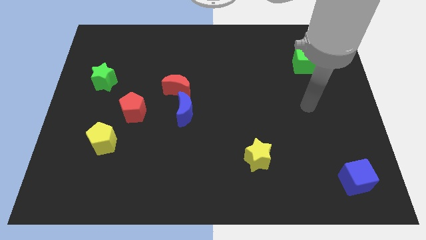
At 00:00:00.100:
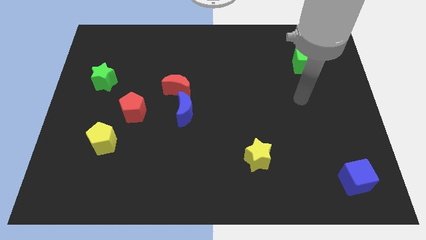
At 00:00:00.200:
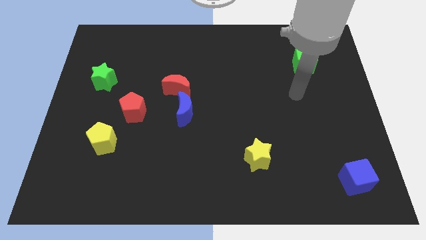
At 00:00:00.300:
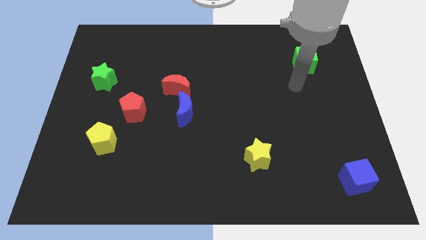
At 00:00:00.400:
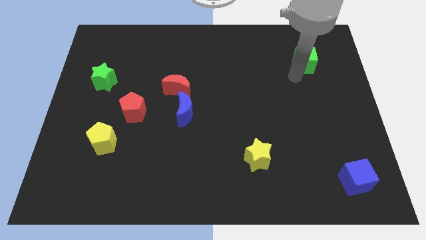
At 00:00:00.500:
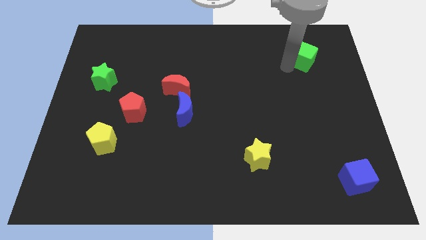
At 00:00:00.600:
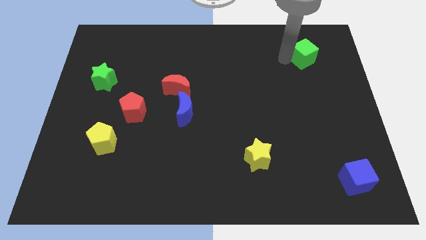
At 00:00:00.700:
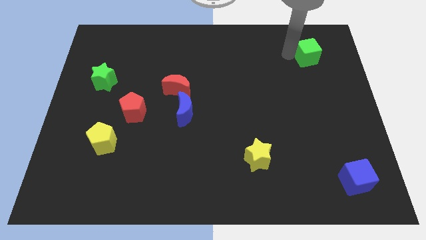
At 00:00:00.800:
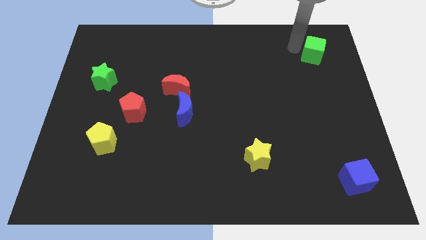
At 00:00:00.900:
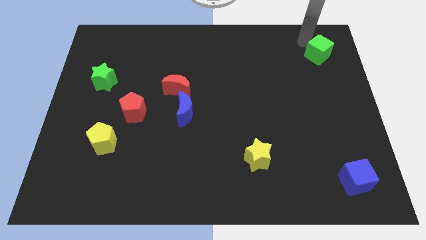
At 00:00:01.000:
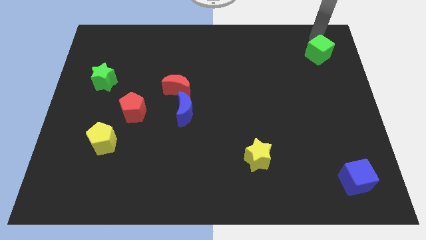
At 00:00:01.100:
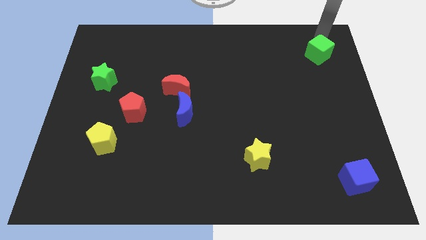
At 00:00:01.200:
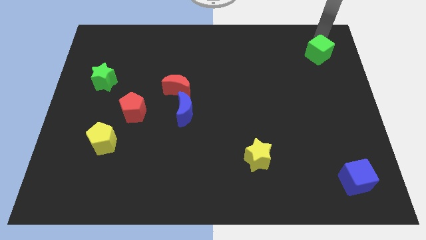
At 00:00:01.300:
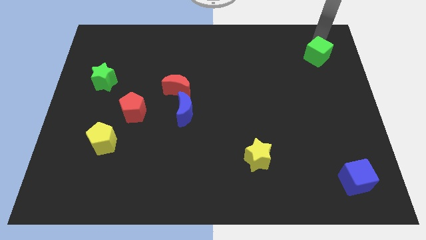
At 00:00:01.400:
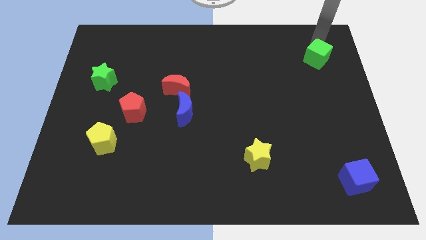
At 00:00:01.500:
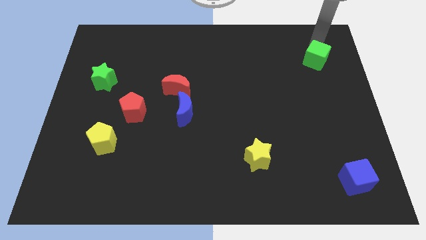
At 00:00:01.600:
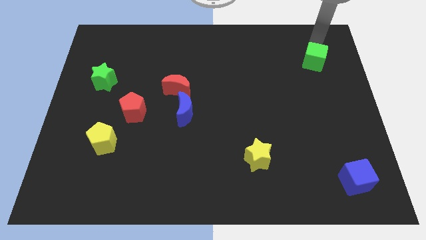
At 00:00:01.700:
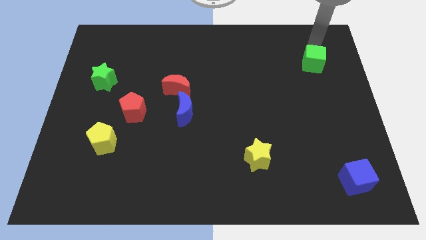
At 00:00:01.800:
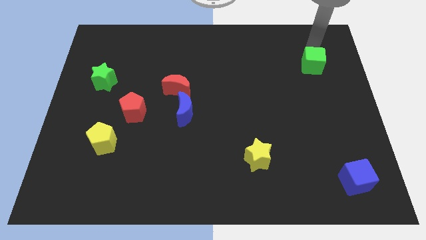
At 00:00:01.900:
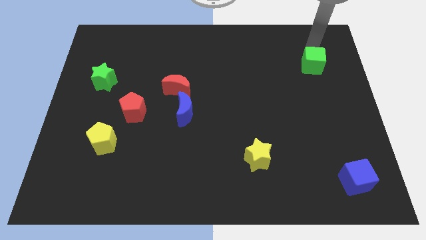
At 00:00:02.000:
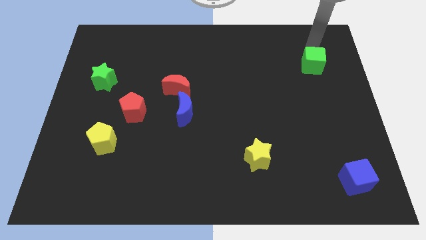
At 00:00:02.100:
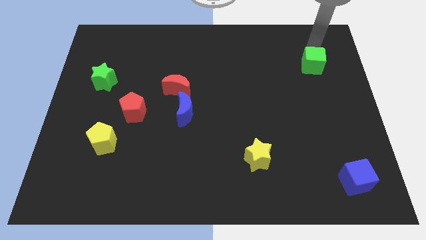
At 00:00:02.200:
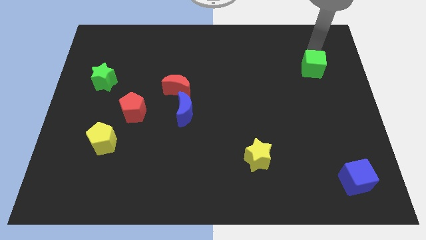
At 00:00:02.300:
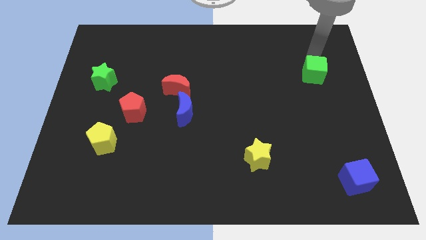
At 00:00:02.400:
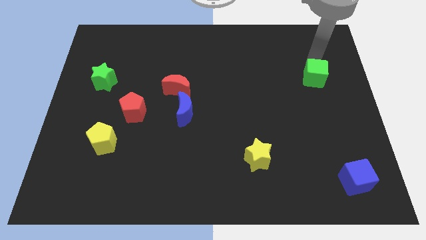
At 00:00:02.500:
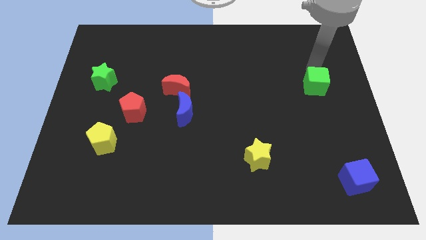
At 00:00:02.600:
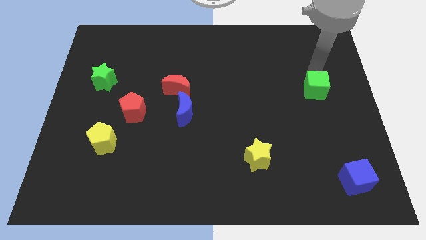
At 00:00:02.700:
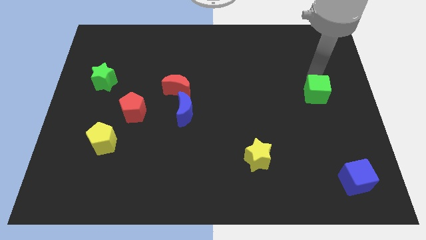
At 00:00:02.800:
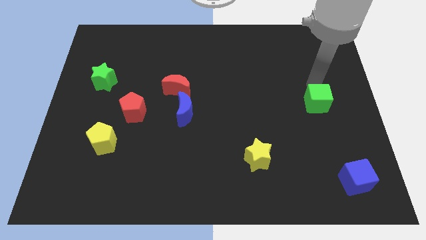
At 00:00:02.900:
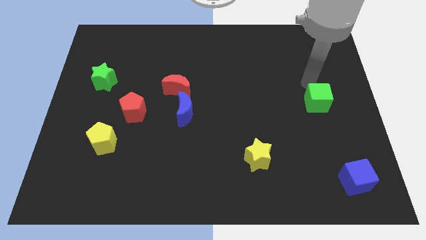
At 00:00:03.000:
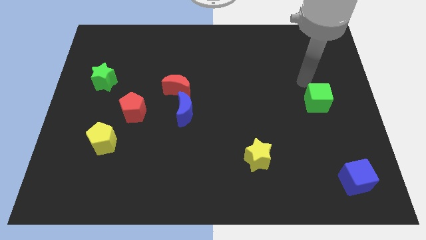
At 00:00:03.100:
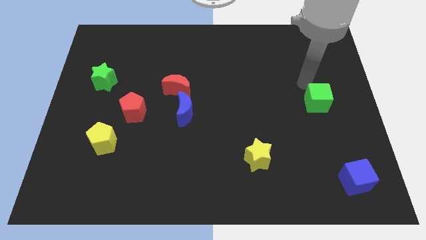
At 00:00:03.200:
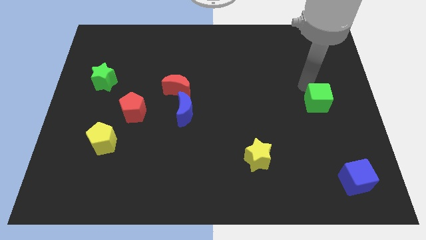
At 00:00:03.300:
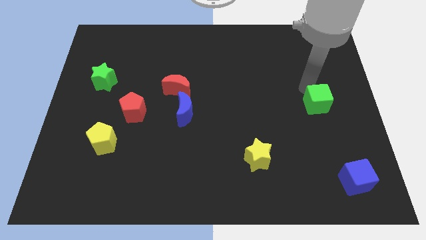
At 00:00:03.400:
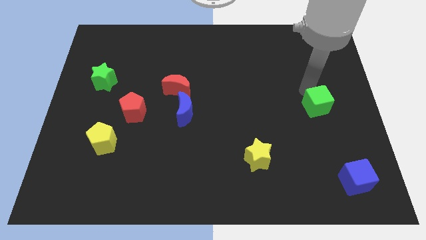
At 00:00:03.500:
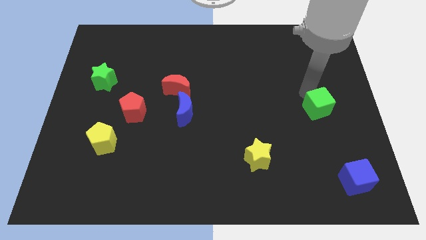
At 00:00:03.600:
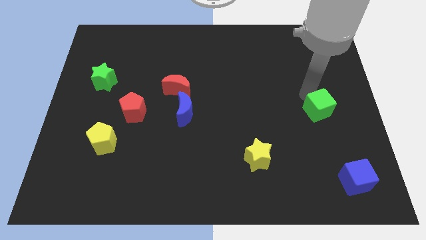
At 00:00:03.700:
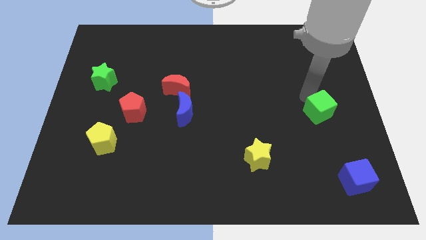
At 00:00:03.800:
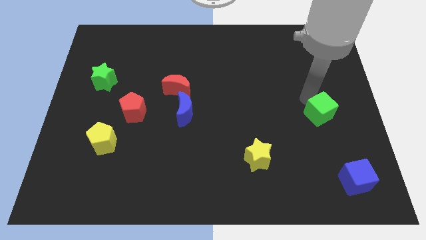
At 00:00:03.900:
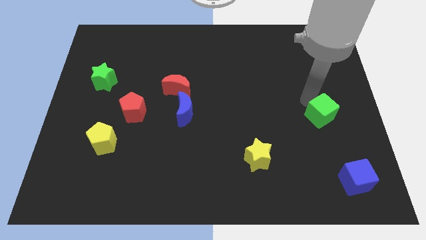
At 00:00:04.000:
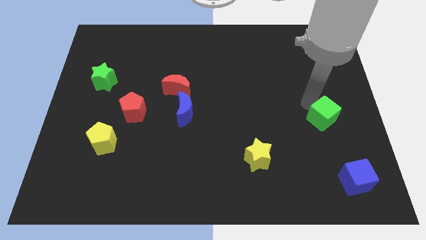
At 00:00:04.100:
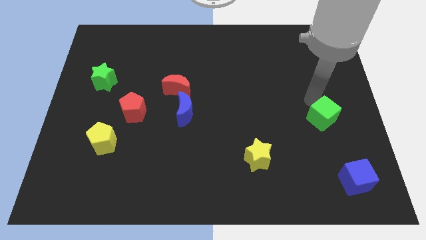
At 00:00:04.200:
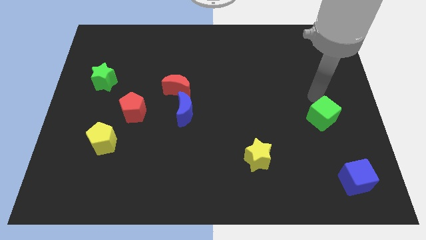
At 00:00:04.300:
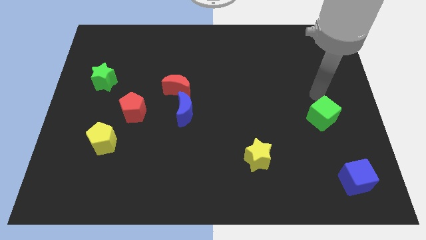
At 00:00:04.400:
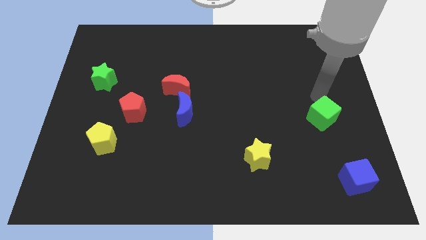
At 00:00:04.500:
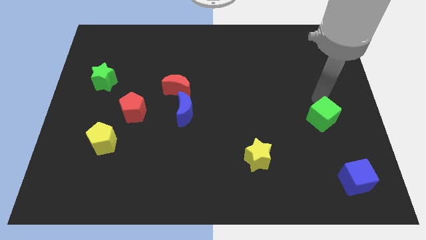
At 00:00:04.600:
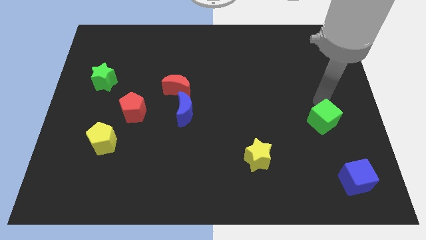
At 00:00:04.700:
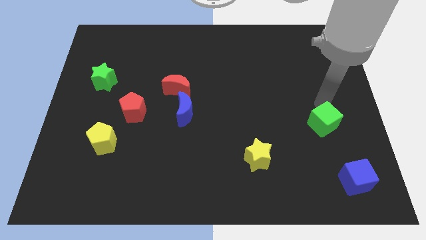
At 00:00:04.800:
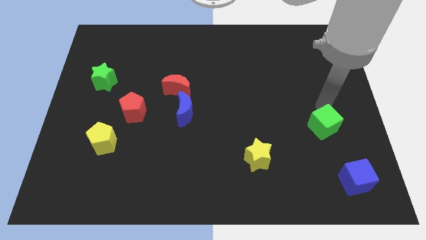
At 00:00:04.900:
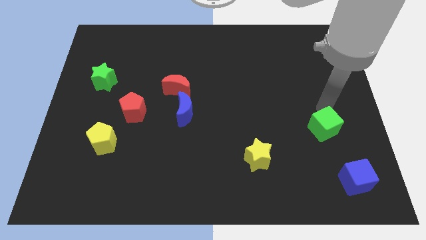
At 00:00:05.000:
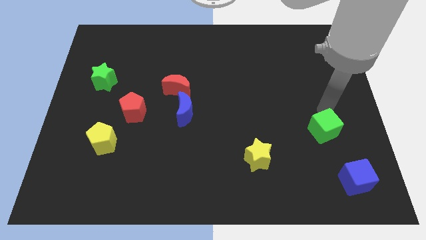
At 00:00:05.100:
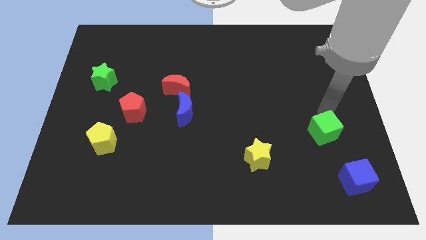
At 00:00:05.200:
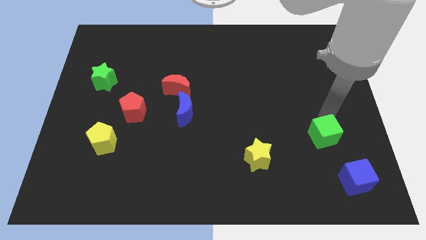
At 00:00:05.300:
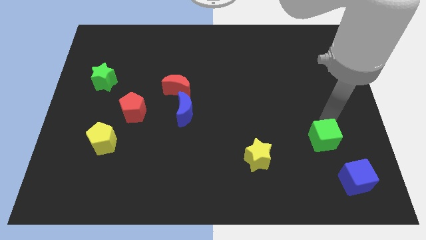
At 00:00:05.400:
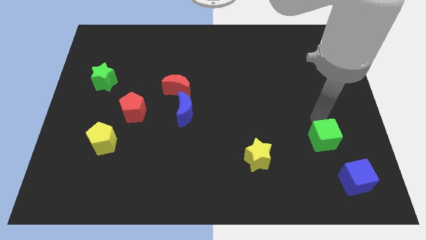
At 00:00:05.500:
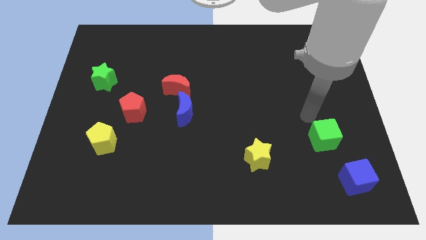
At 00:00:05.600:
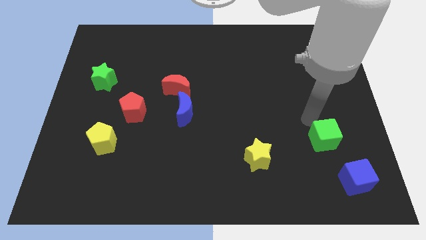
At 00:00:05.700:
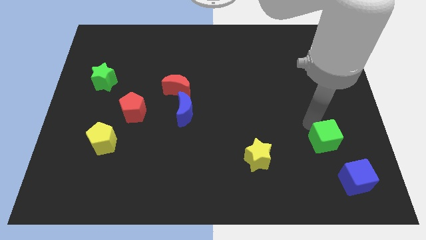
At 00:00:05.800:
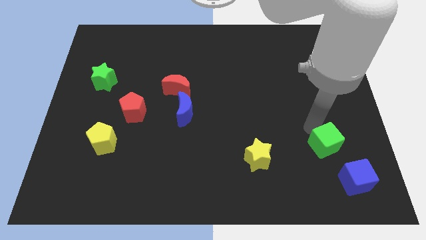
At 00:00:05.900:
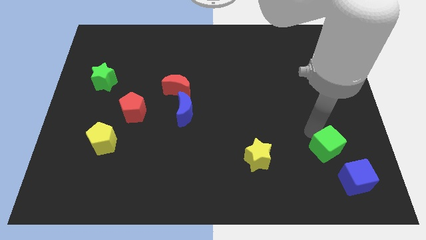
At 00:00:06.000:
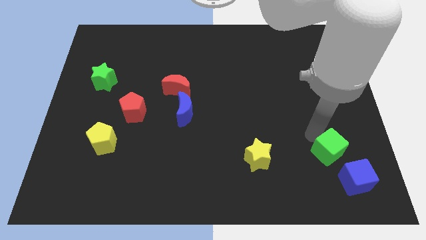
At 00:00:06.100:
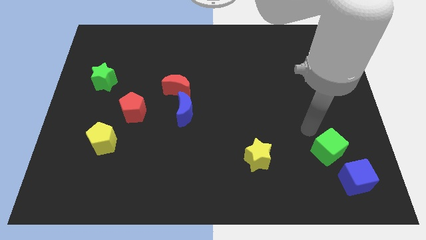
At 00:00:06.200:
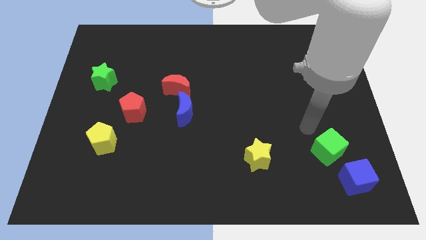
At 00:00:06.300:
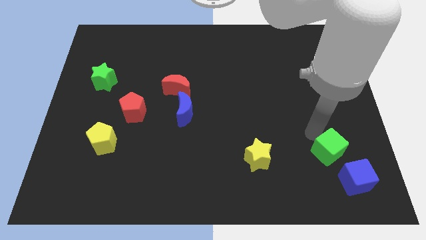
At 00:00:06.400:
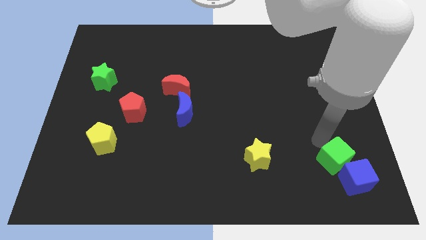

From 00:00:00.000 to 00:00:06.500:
push the green cube next to the blue cube

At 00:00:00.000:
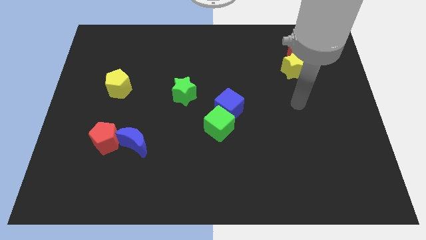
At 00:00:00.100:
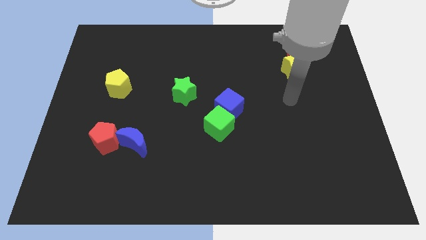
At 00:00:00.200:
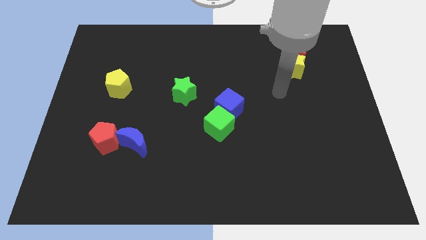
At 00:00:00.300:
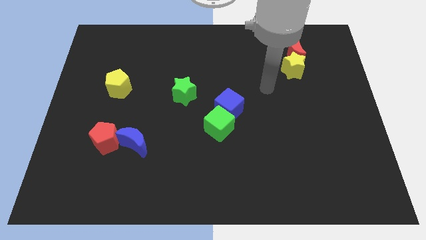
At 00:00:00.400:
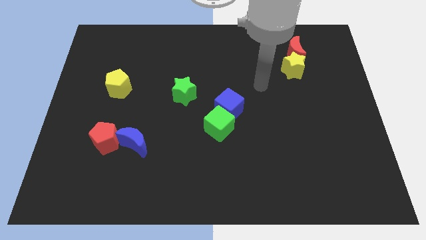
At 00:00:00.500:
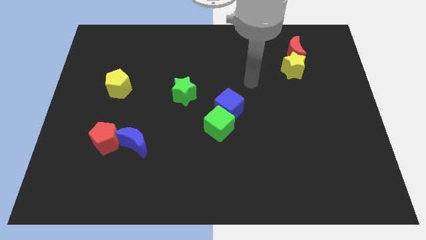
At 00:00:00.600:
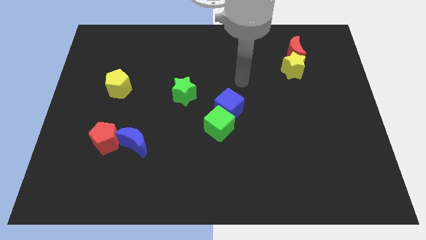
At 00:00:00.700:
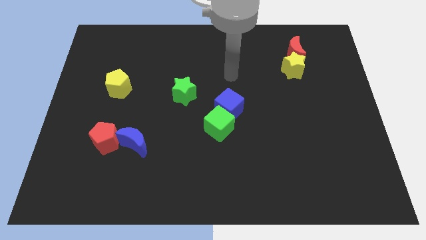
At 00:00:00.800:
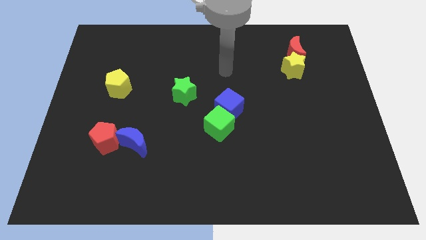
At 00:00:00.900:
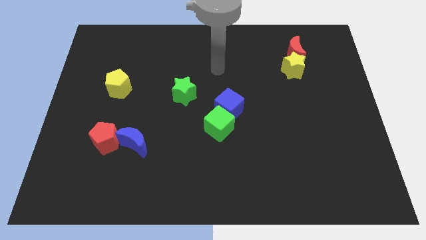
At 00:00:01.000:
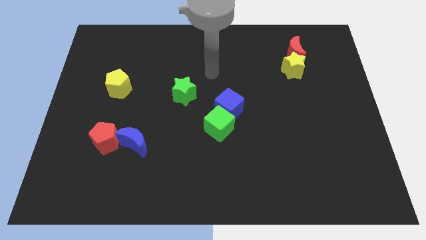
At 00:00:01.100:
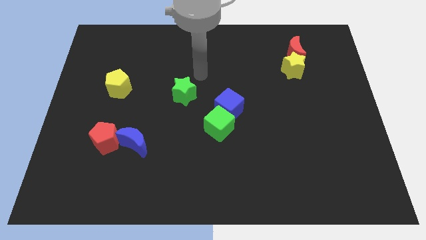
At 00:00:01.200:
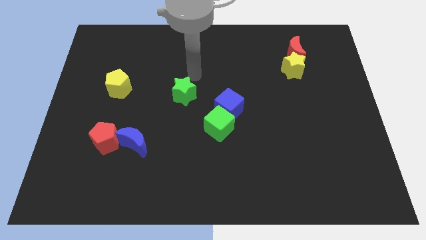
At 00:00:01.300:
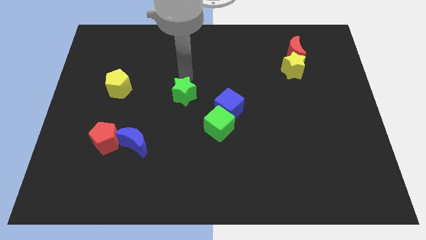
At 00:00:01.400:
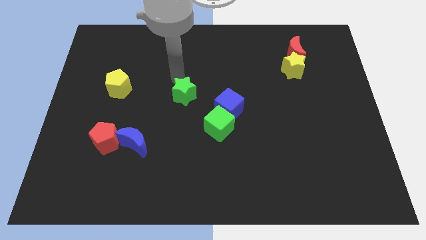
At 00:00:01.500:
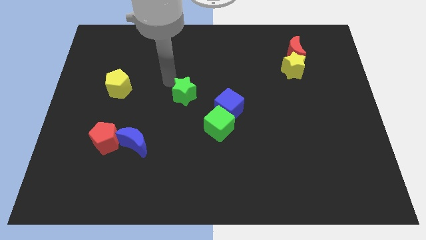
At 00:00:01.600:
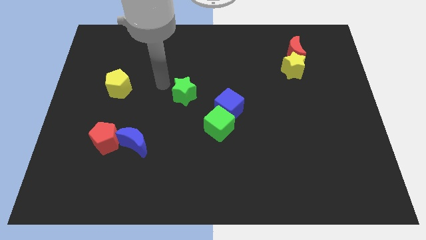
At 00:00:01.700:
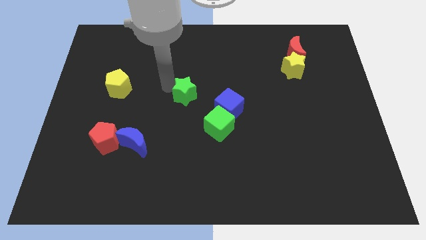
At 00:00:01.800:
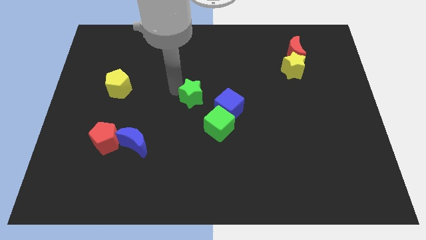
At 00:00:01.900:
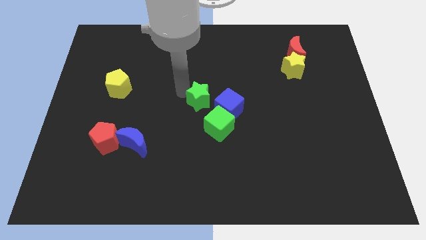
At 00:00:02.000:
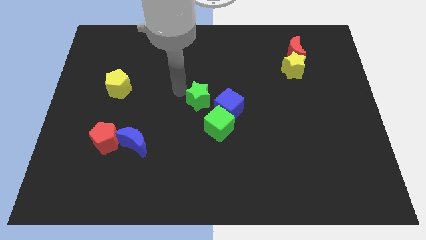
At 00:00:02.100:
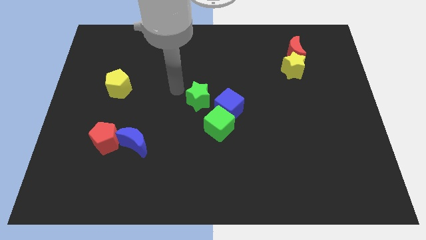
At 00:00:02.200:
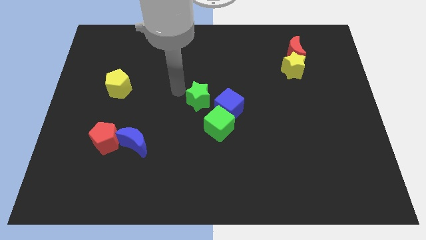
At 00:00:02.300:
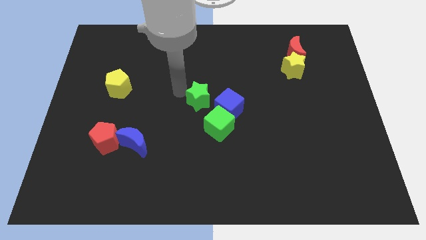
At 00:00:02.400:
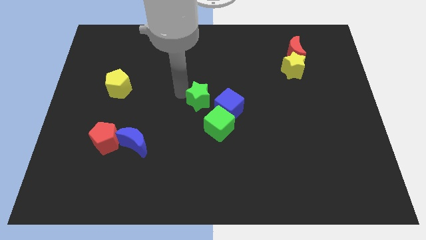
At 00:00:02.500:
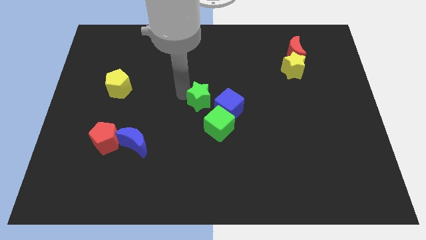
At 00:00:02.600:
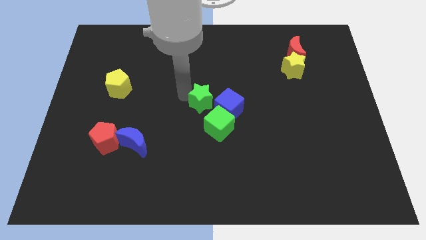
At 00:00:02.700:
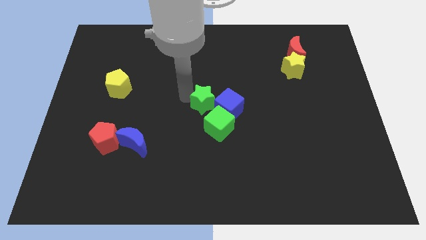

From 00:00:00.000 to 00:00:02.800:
slide the green star to the blue cube
